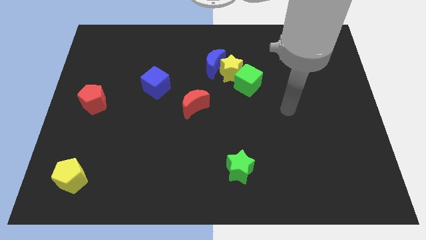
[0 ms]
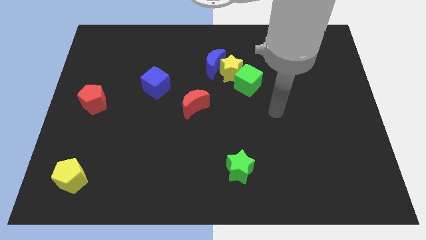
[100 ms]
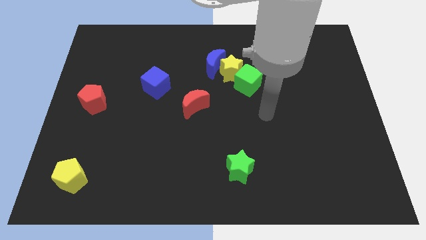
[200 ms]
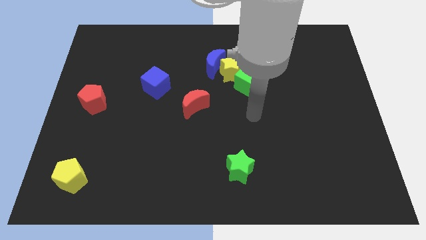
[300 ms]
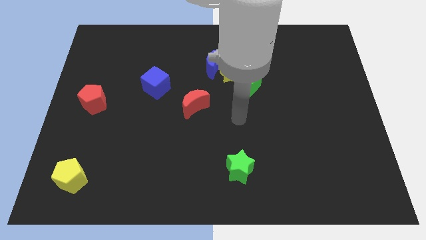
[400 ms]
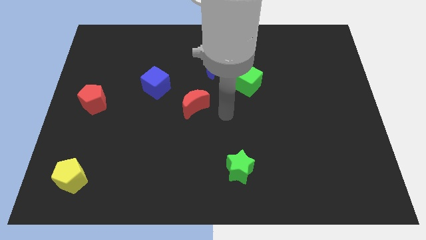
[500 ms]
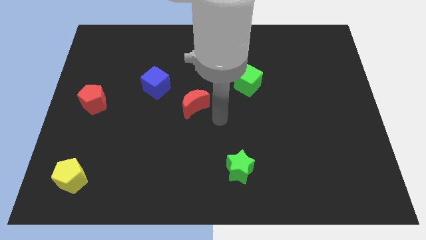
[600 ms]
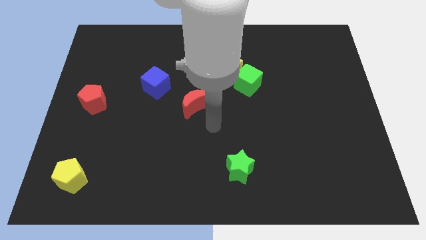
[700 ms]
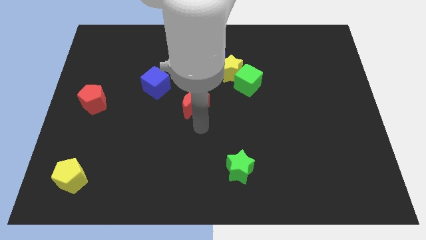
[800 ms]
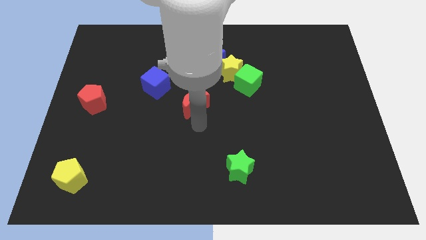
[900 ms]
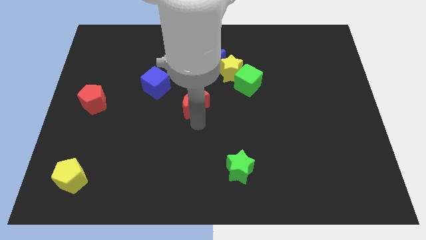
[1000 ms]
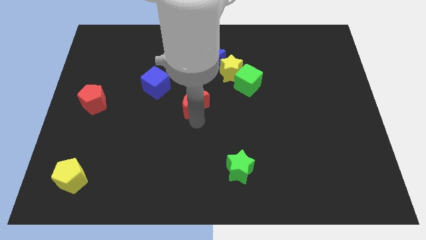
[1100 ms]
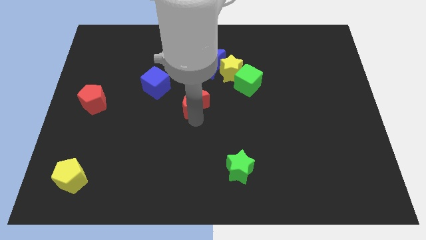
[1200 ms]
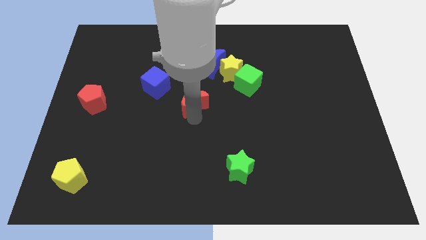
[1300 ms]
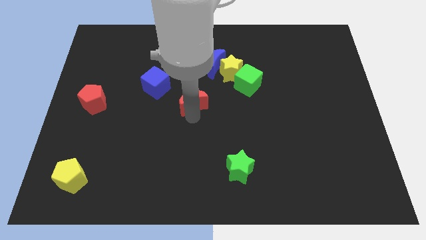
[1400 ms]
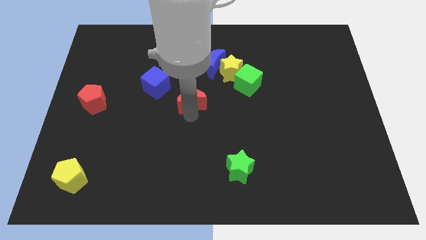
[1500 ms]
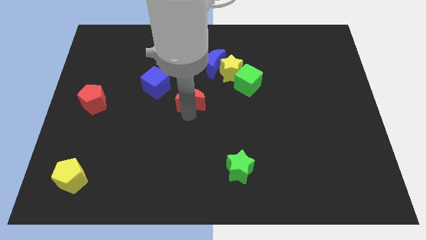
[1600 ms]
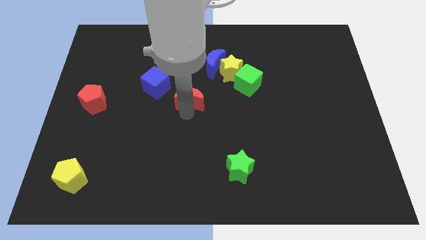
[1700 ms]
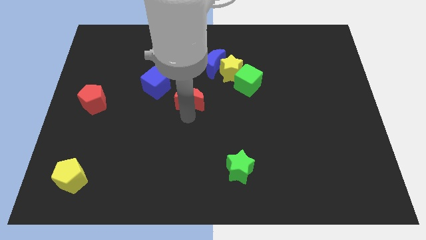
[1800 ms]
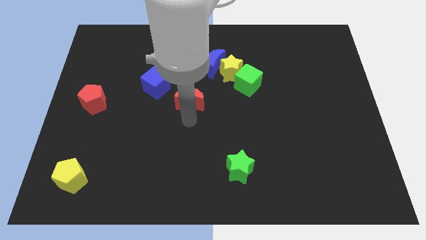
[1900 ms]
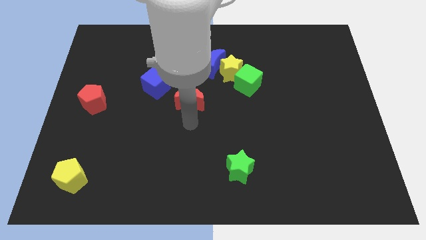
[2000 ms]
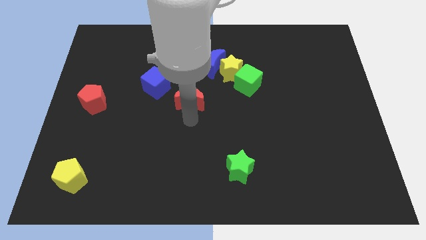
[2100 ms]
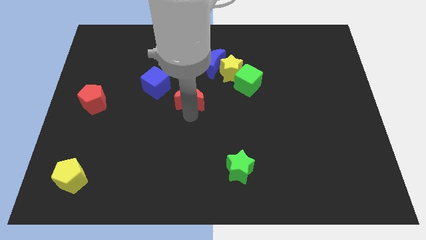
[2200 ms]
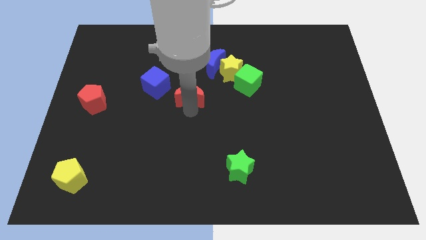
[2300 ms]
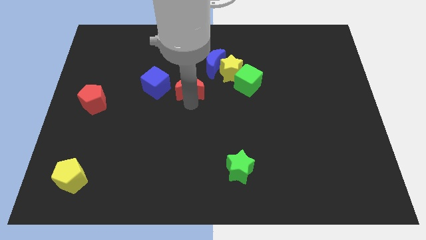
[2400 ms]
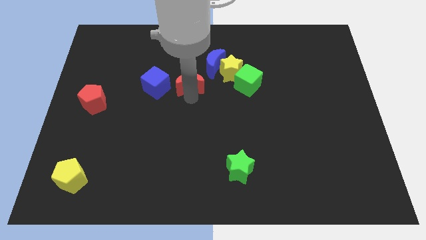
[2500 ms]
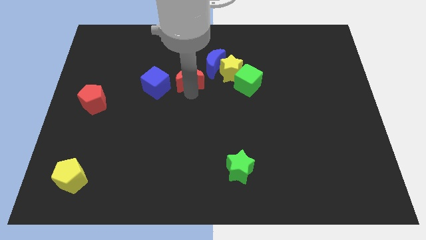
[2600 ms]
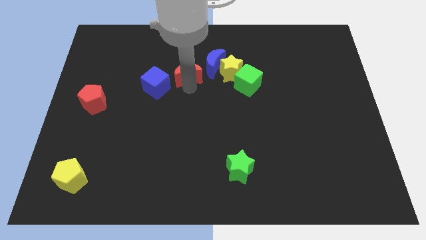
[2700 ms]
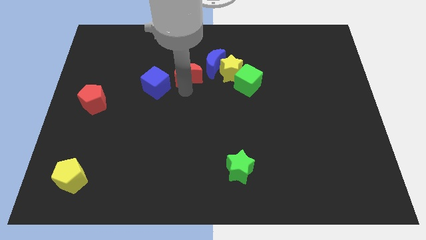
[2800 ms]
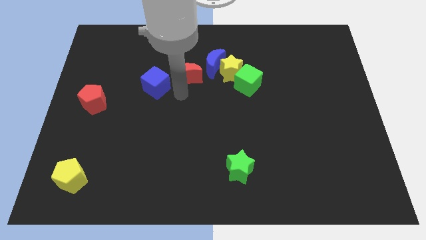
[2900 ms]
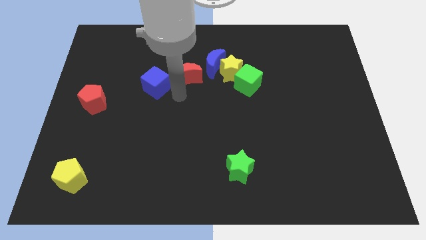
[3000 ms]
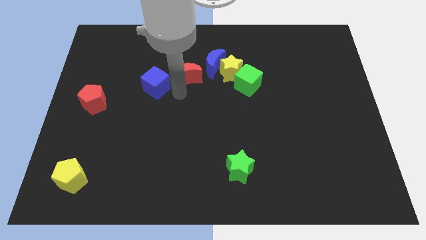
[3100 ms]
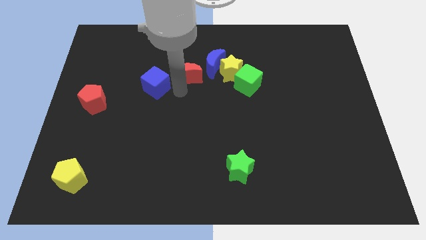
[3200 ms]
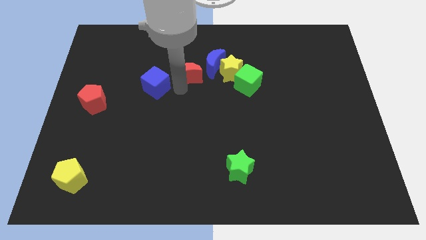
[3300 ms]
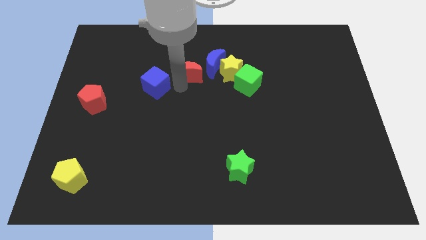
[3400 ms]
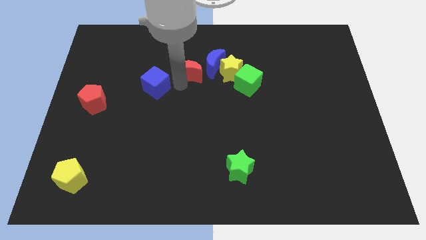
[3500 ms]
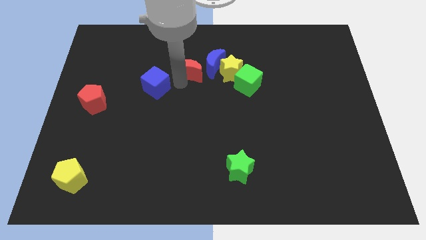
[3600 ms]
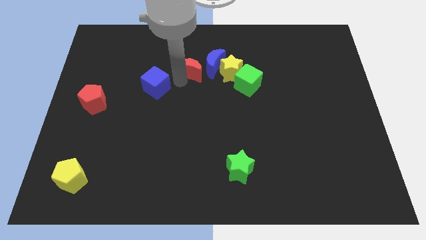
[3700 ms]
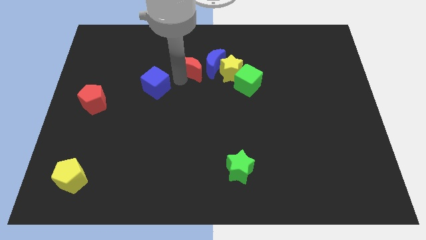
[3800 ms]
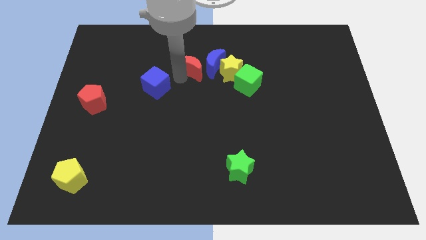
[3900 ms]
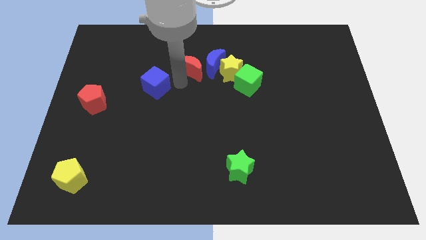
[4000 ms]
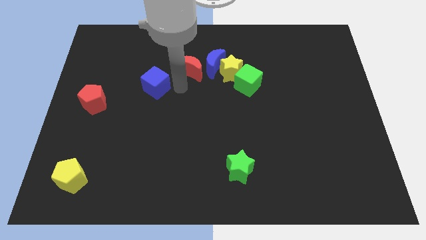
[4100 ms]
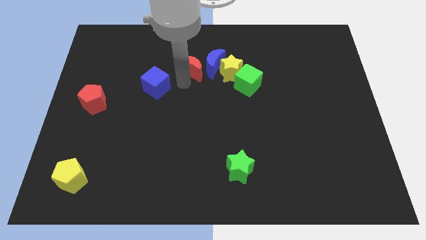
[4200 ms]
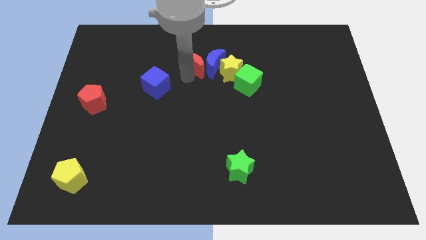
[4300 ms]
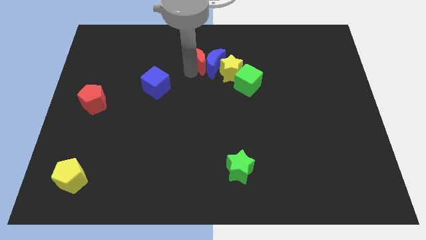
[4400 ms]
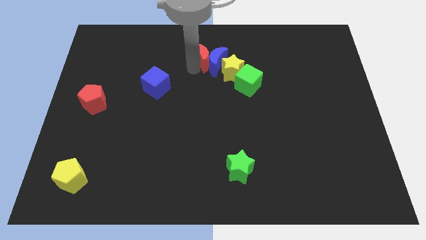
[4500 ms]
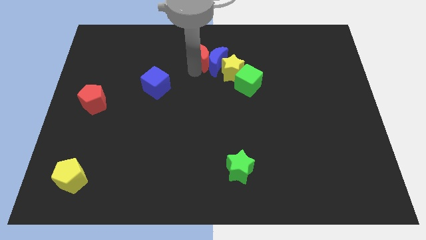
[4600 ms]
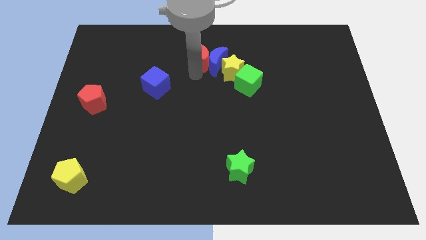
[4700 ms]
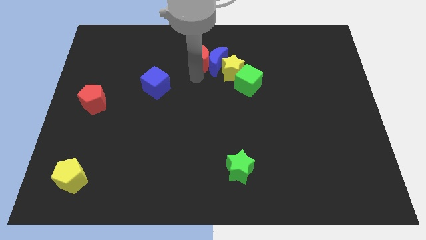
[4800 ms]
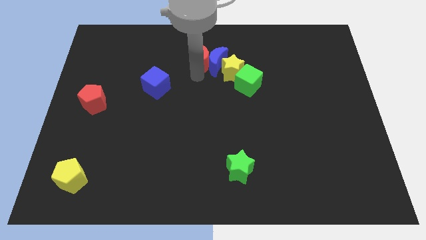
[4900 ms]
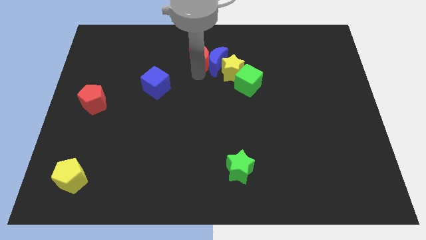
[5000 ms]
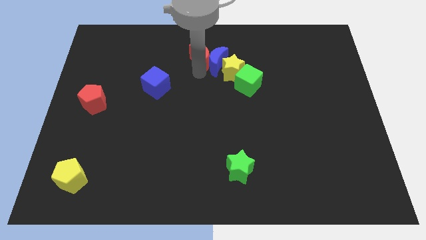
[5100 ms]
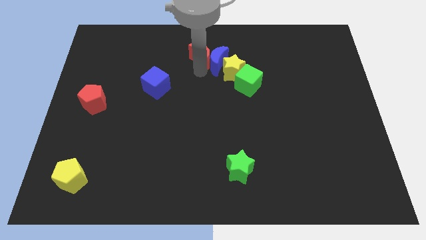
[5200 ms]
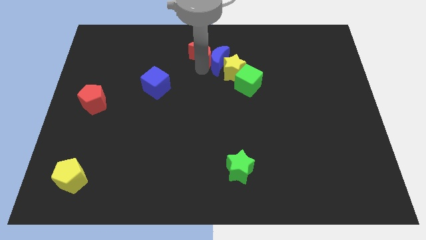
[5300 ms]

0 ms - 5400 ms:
move the red moon to the top side

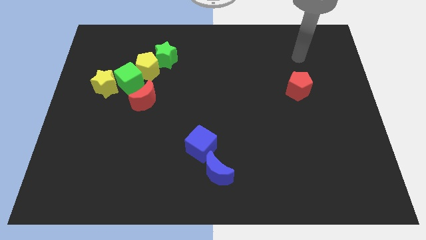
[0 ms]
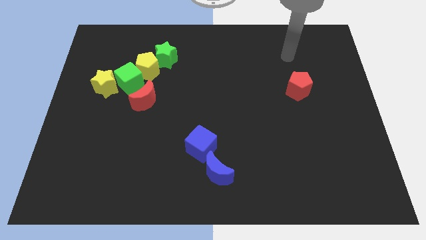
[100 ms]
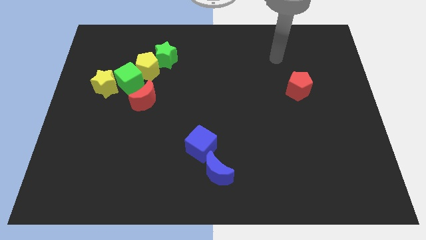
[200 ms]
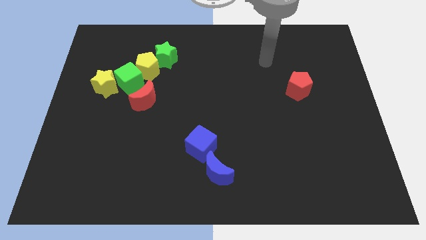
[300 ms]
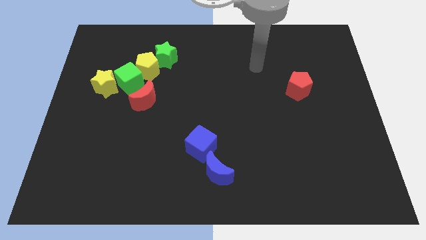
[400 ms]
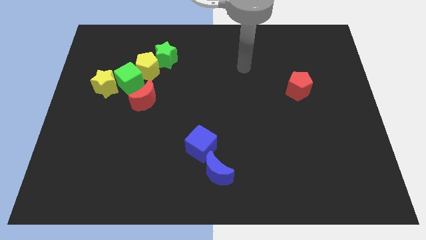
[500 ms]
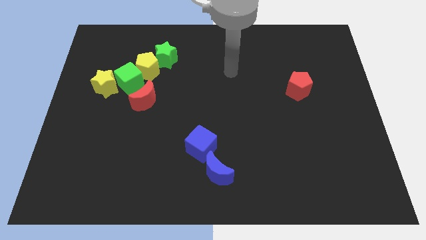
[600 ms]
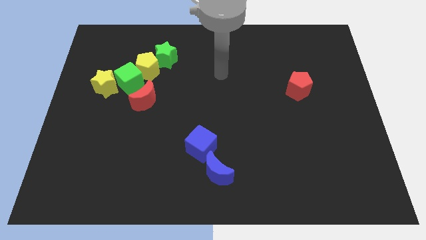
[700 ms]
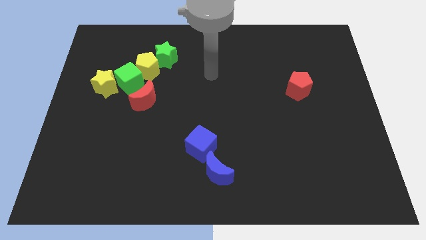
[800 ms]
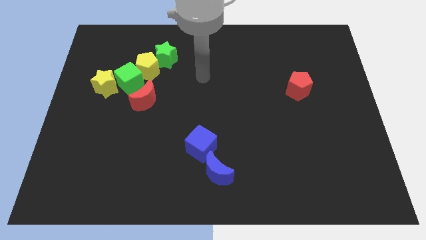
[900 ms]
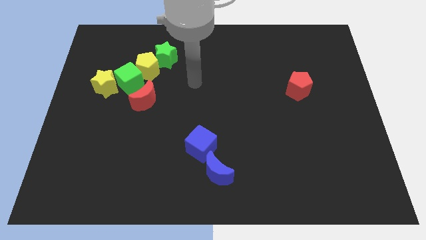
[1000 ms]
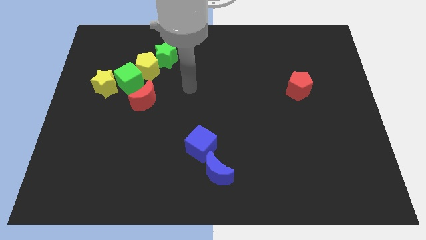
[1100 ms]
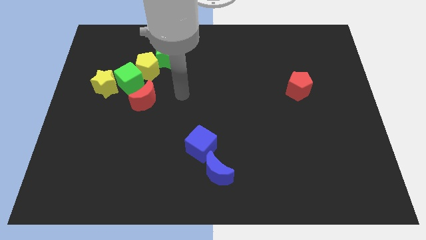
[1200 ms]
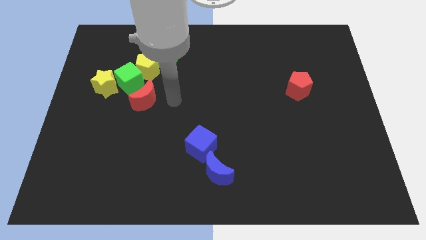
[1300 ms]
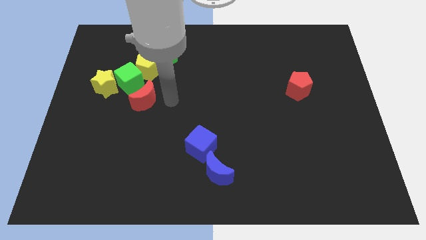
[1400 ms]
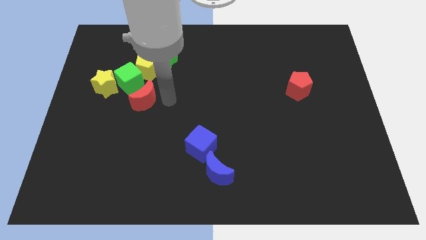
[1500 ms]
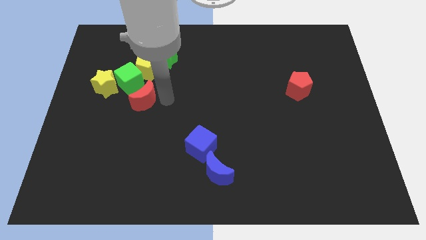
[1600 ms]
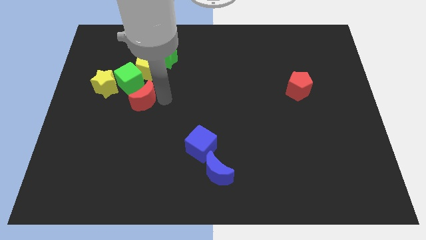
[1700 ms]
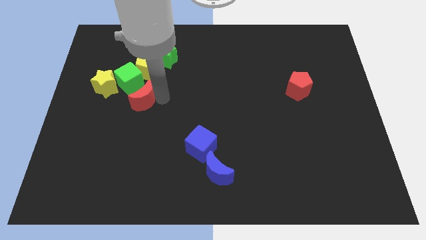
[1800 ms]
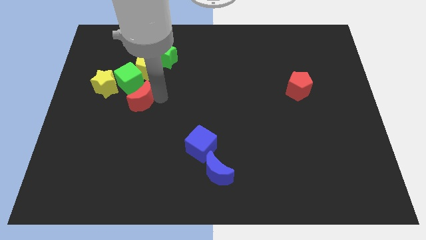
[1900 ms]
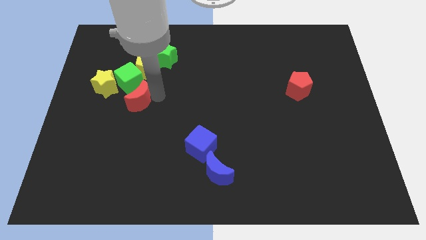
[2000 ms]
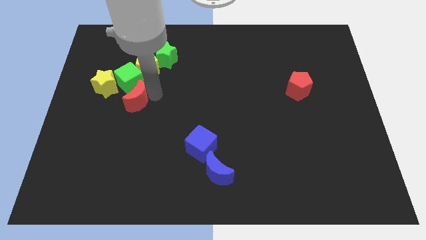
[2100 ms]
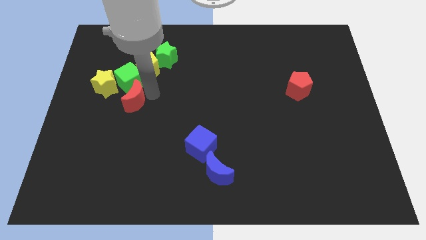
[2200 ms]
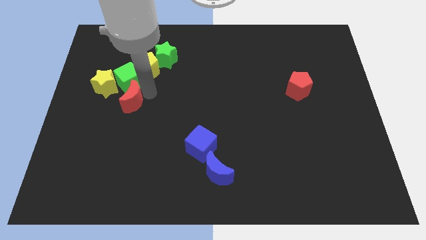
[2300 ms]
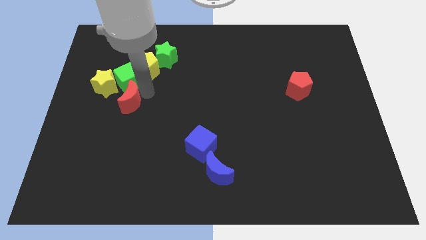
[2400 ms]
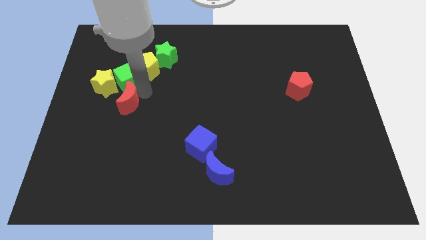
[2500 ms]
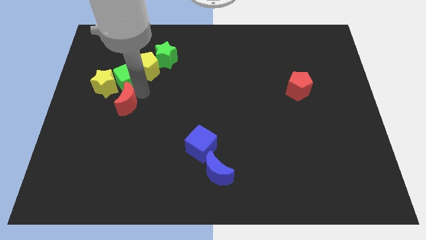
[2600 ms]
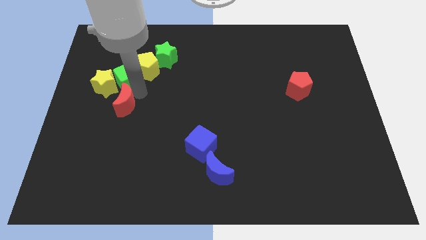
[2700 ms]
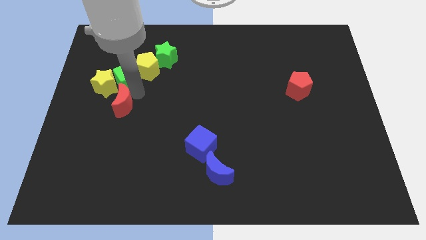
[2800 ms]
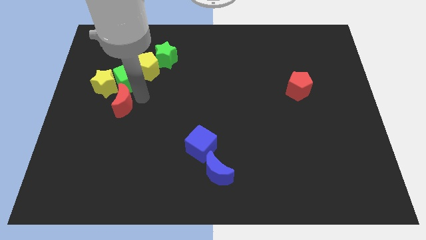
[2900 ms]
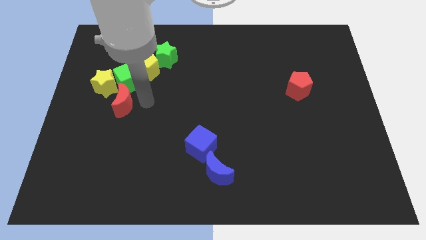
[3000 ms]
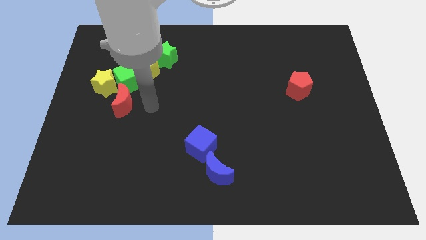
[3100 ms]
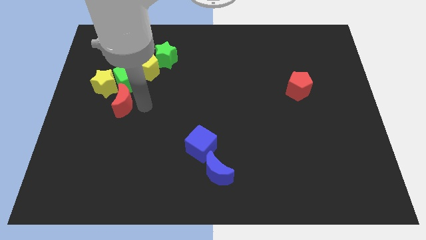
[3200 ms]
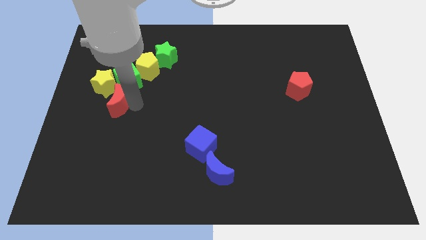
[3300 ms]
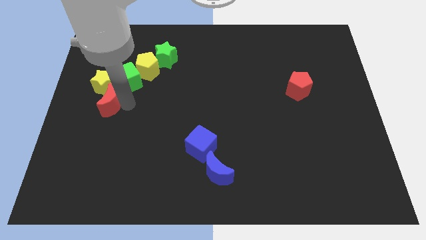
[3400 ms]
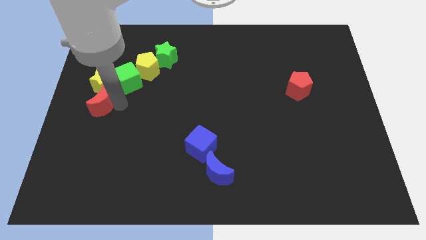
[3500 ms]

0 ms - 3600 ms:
slide the red moon to the center left
